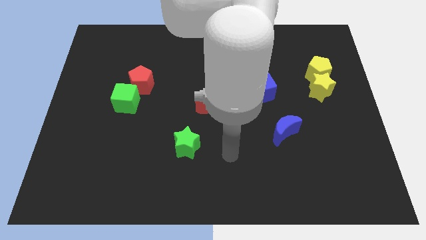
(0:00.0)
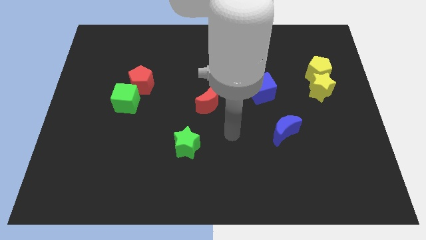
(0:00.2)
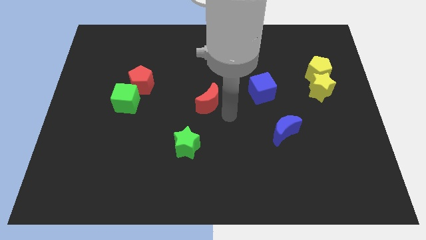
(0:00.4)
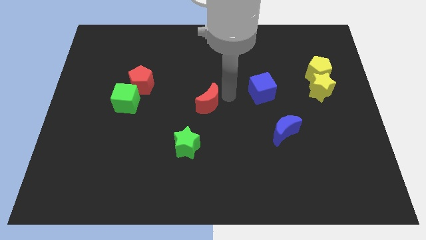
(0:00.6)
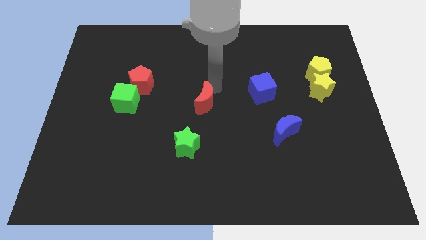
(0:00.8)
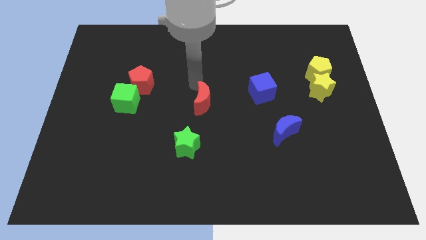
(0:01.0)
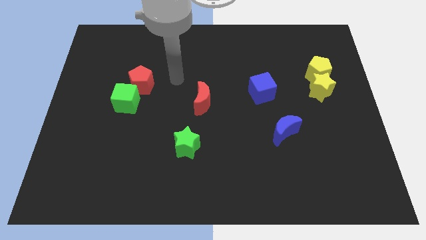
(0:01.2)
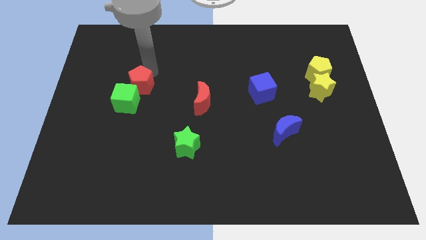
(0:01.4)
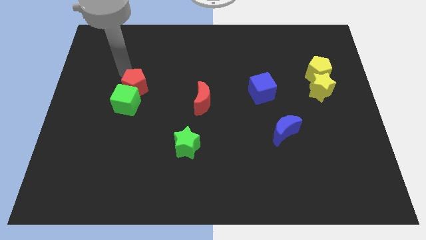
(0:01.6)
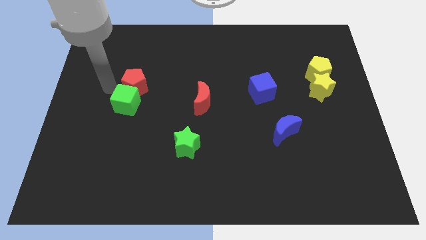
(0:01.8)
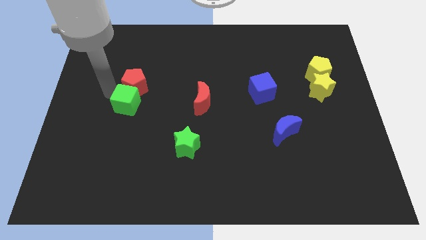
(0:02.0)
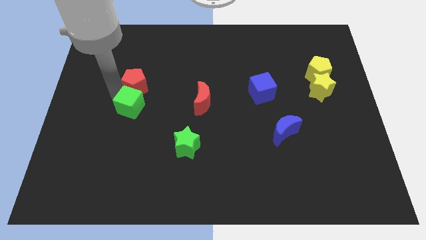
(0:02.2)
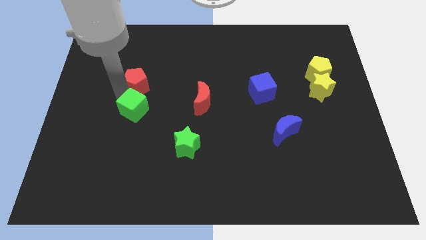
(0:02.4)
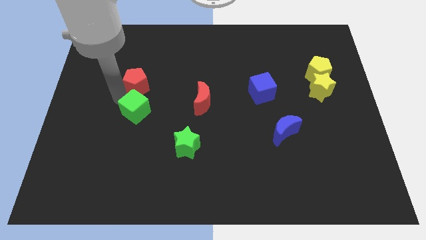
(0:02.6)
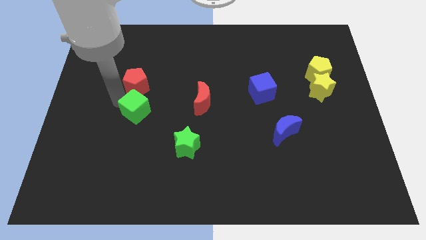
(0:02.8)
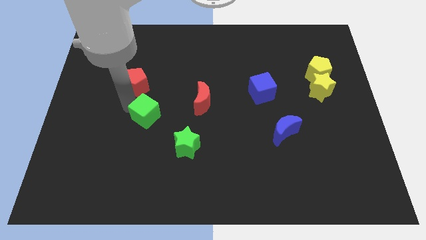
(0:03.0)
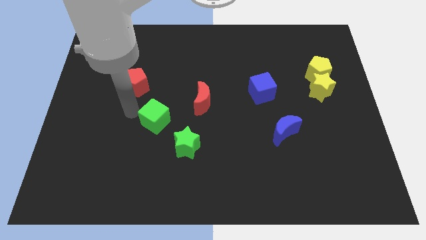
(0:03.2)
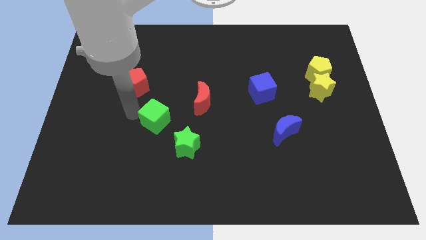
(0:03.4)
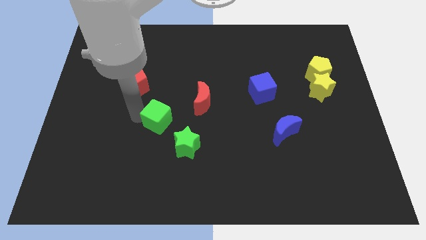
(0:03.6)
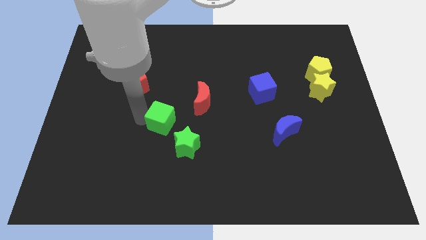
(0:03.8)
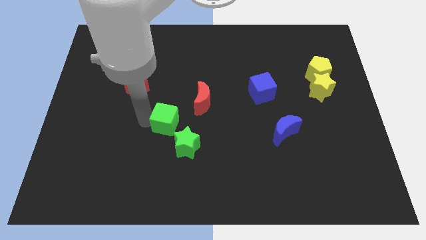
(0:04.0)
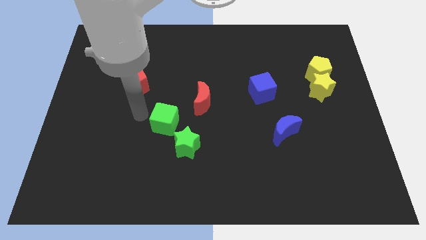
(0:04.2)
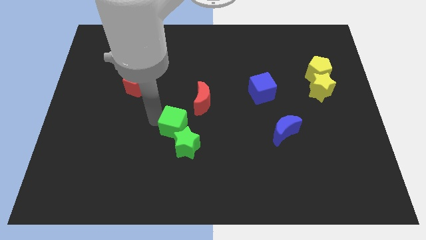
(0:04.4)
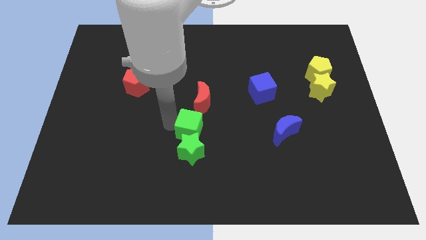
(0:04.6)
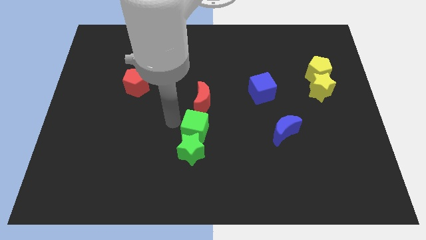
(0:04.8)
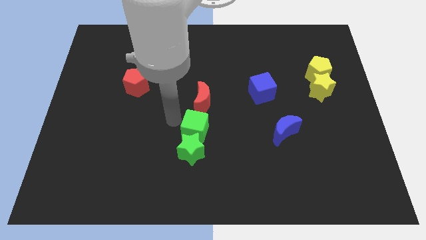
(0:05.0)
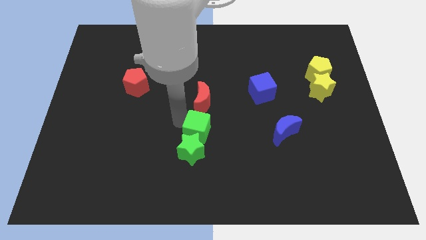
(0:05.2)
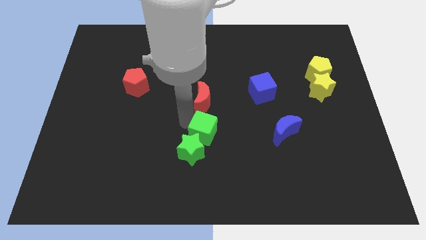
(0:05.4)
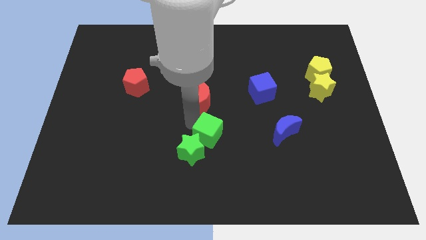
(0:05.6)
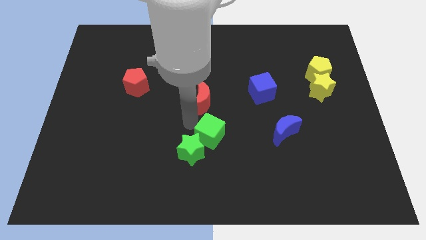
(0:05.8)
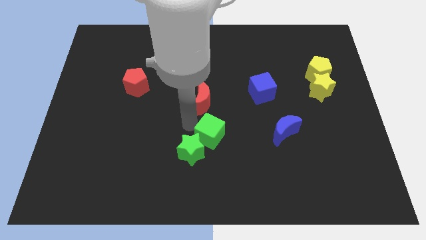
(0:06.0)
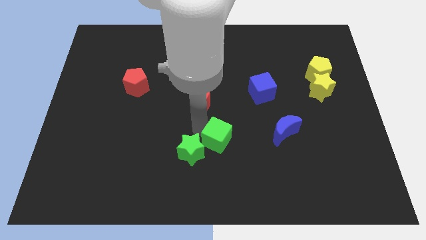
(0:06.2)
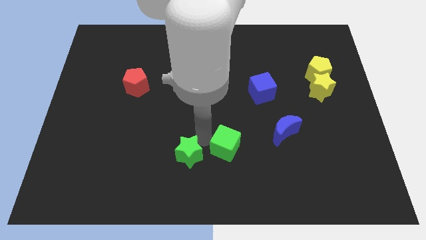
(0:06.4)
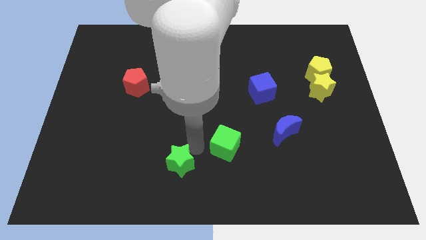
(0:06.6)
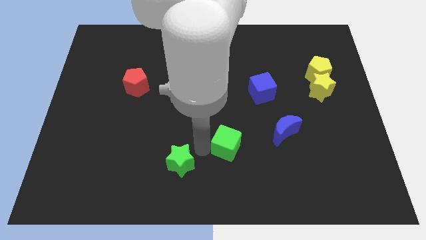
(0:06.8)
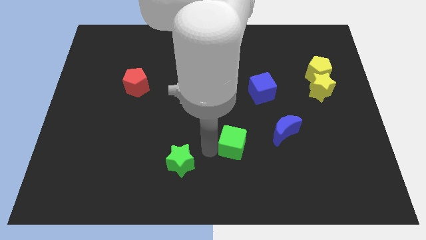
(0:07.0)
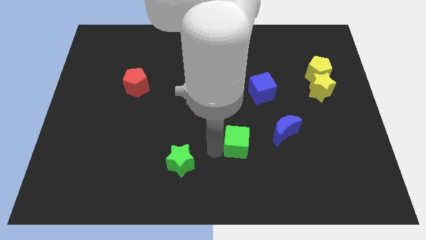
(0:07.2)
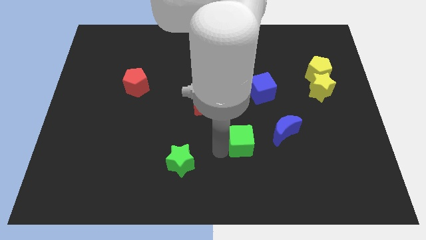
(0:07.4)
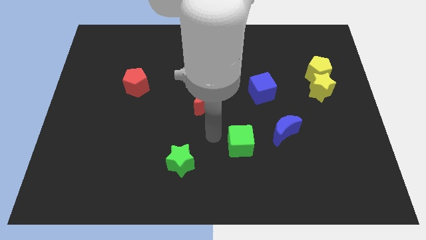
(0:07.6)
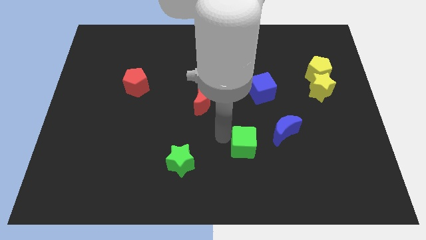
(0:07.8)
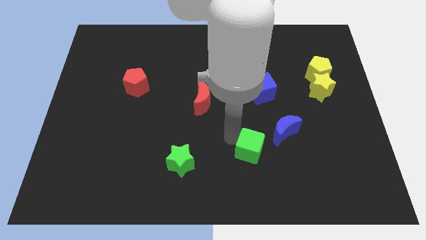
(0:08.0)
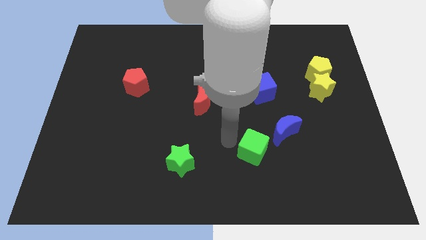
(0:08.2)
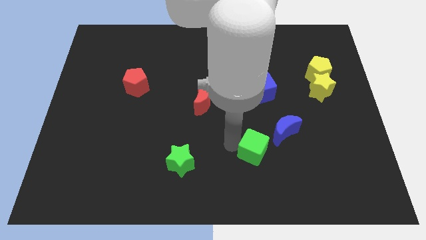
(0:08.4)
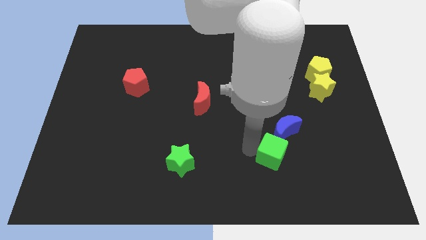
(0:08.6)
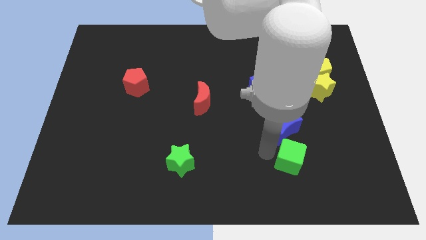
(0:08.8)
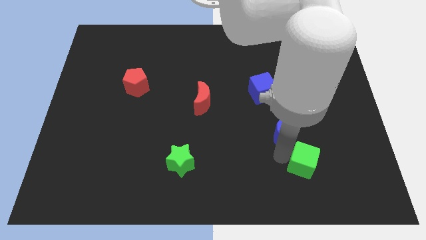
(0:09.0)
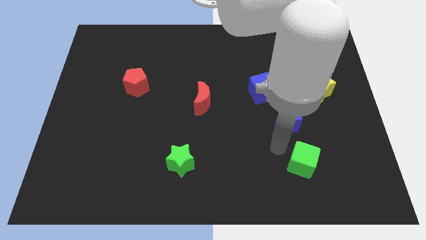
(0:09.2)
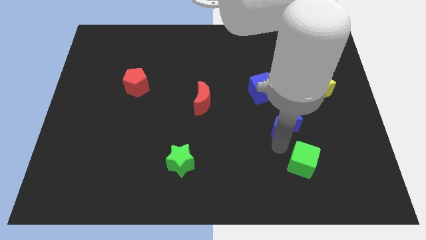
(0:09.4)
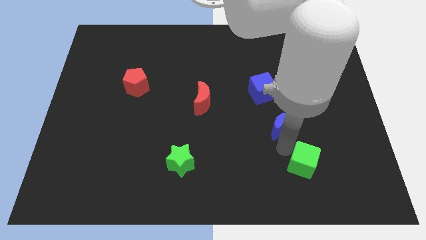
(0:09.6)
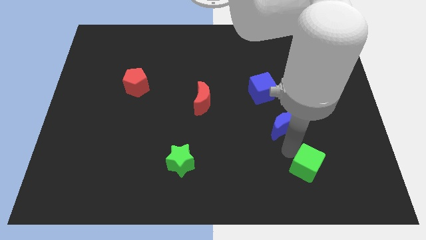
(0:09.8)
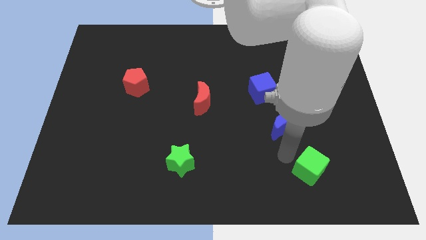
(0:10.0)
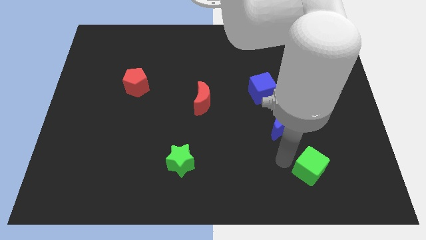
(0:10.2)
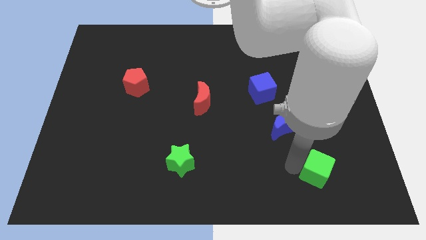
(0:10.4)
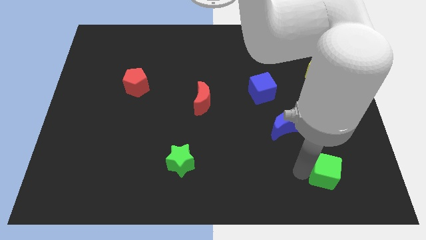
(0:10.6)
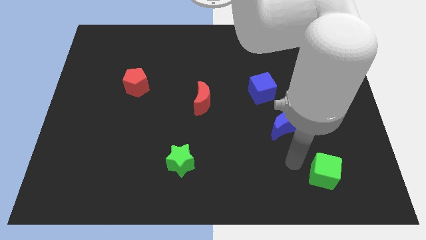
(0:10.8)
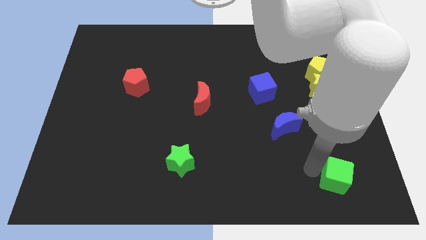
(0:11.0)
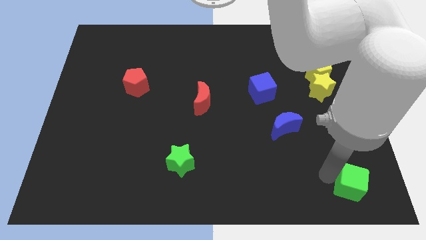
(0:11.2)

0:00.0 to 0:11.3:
put the green cube to the bottom right of the board

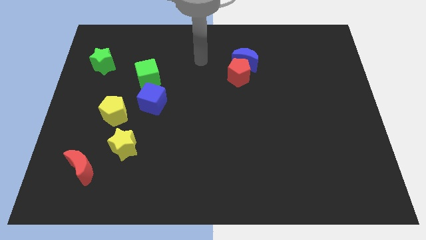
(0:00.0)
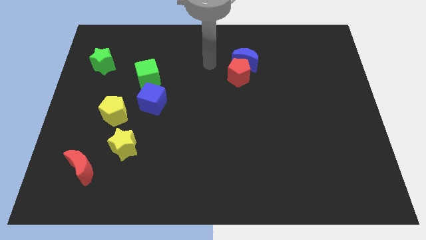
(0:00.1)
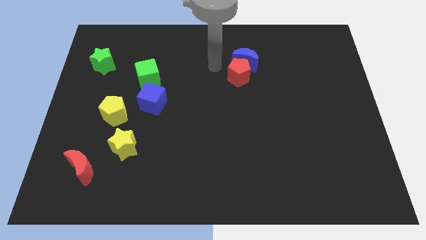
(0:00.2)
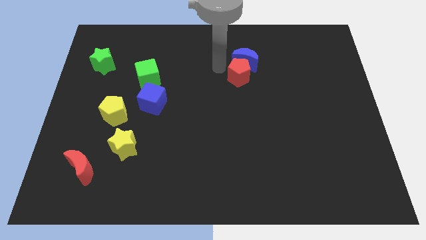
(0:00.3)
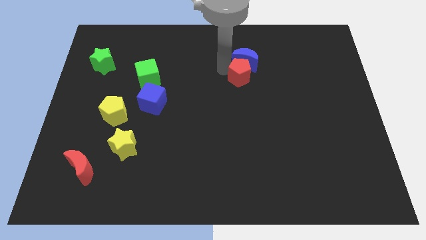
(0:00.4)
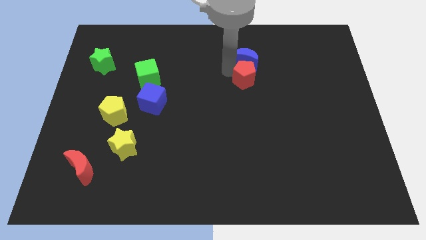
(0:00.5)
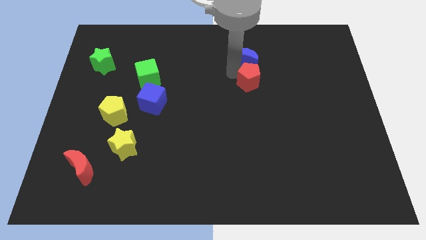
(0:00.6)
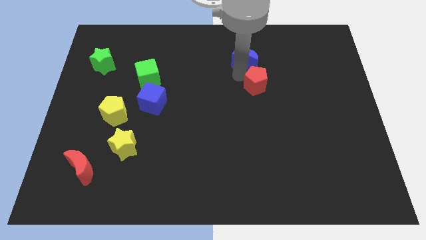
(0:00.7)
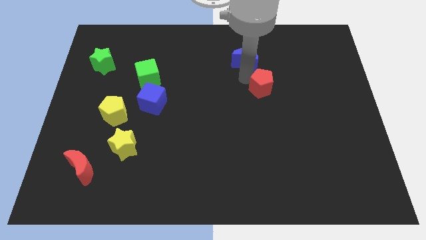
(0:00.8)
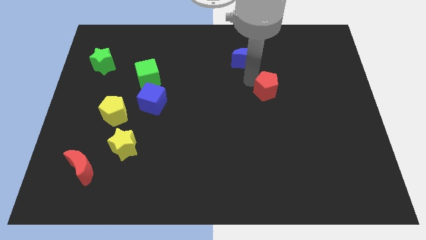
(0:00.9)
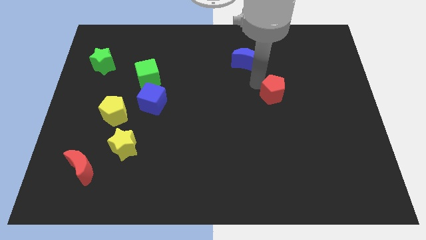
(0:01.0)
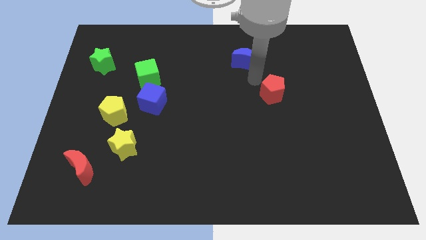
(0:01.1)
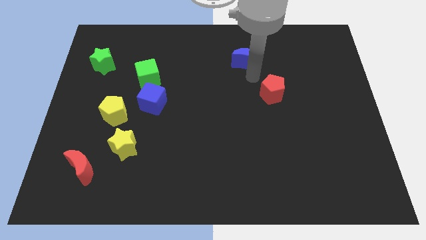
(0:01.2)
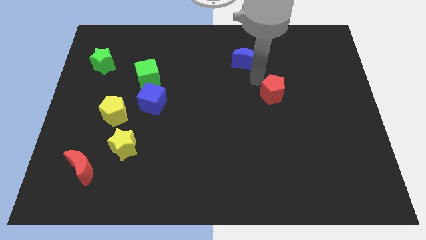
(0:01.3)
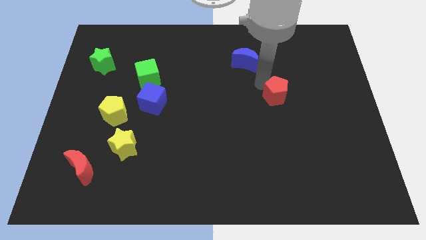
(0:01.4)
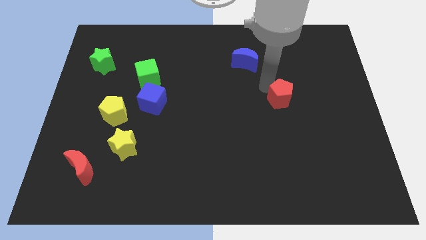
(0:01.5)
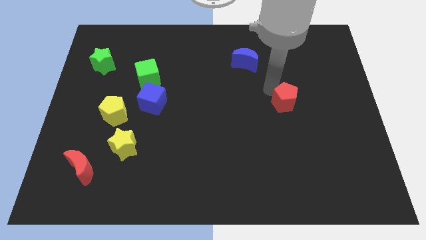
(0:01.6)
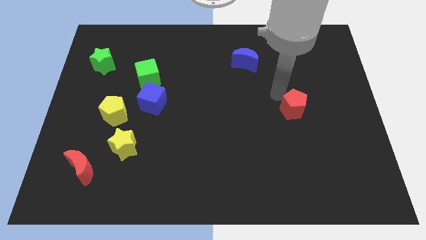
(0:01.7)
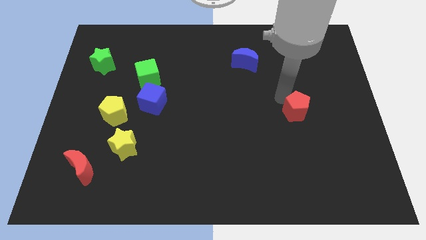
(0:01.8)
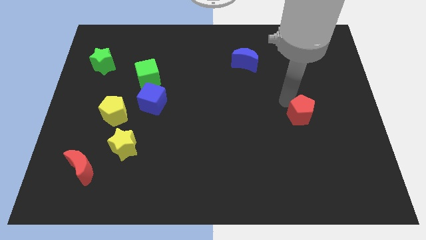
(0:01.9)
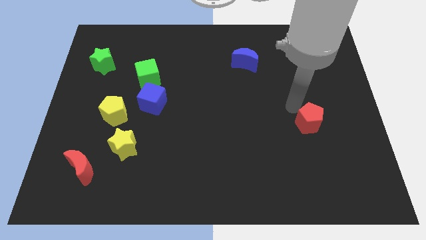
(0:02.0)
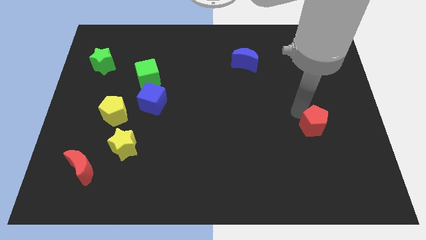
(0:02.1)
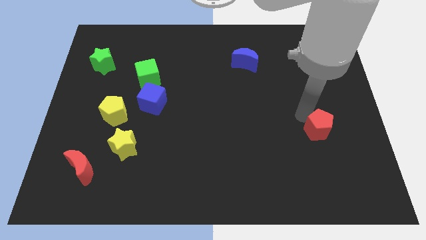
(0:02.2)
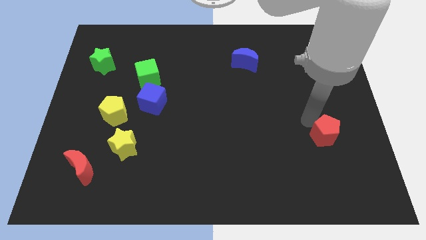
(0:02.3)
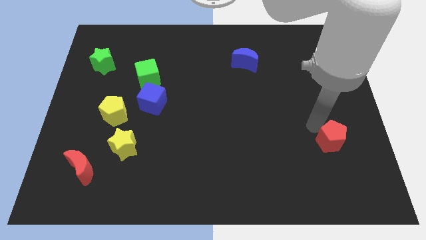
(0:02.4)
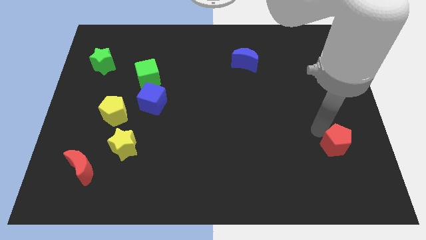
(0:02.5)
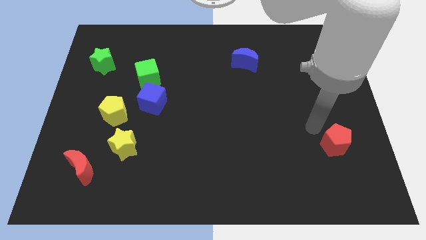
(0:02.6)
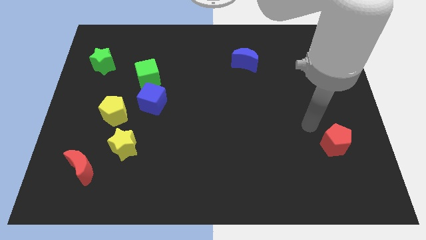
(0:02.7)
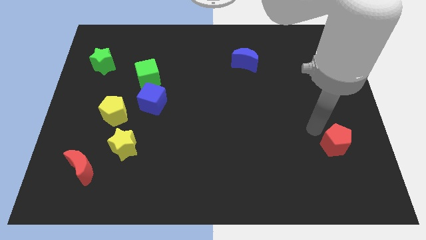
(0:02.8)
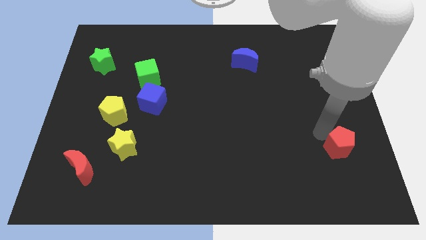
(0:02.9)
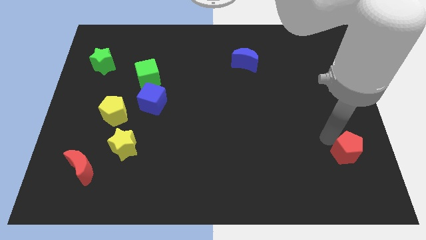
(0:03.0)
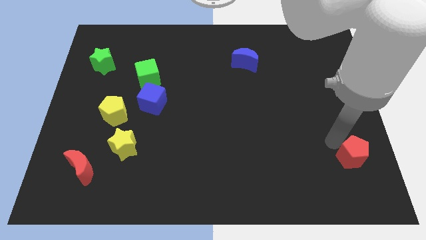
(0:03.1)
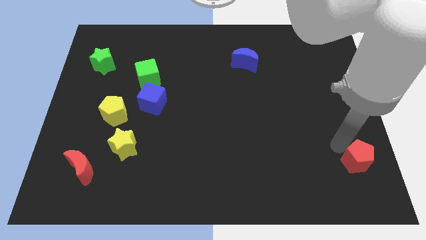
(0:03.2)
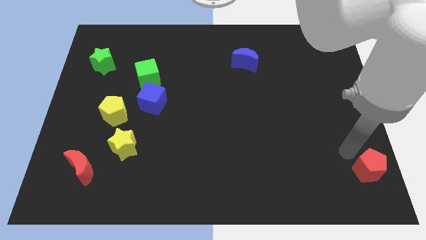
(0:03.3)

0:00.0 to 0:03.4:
slide the red pentagon to the lower right corner
